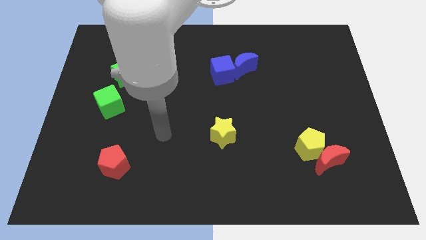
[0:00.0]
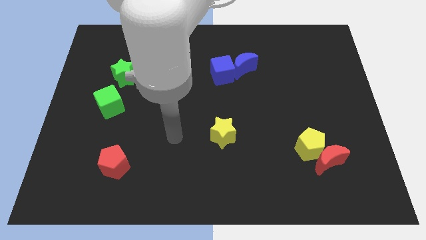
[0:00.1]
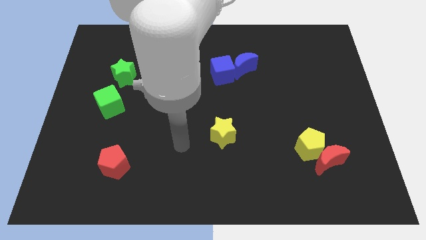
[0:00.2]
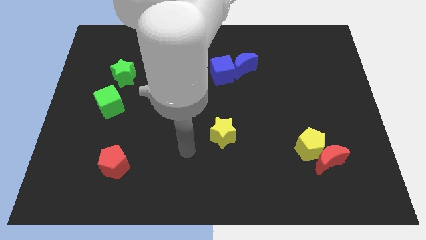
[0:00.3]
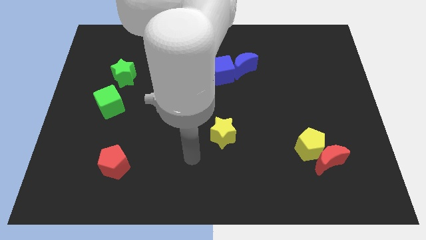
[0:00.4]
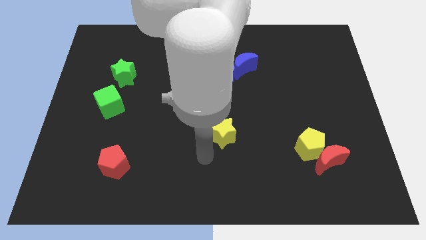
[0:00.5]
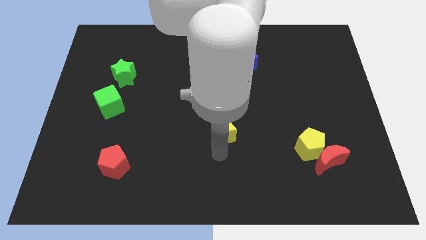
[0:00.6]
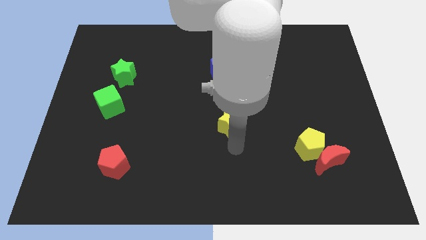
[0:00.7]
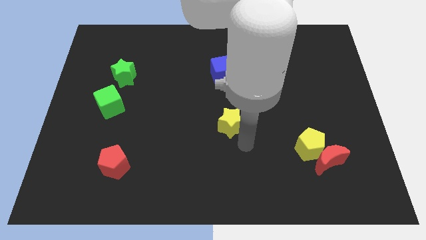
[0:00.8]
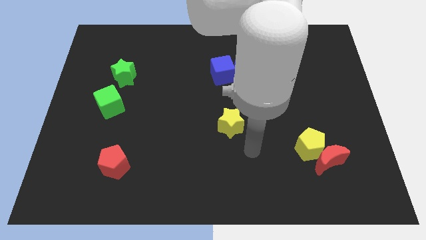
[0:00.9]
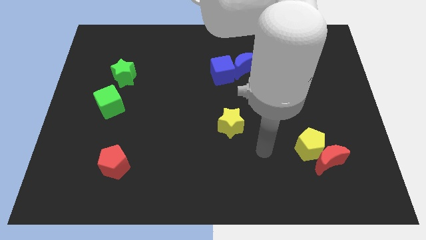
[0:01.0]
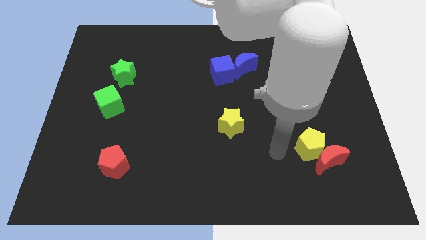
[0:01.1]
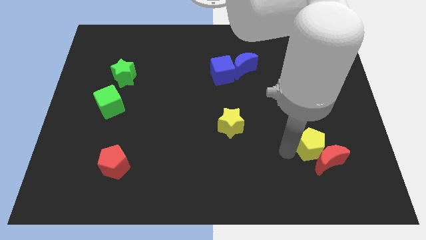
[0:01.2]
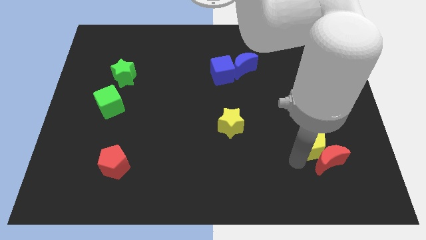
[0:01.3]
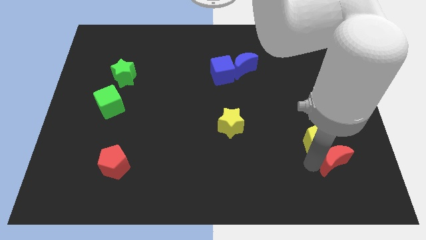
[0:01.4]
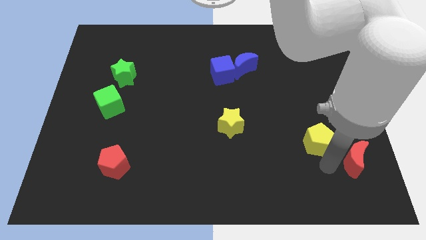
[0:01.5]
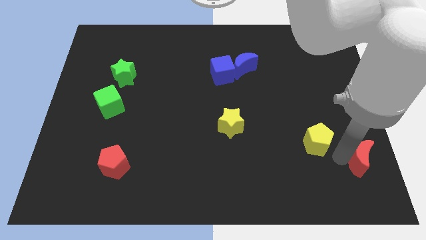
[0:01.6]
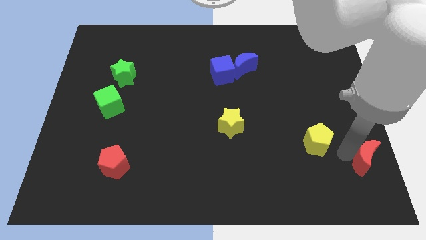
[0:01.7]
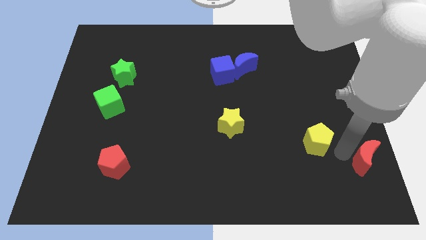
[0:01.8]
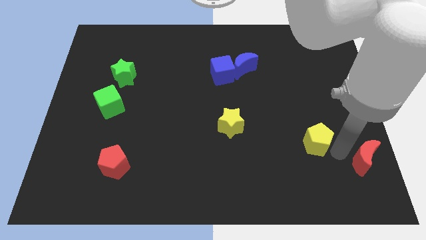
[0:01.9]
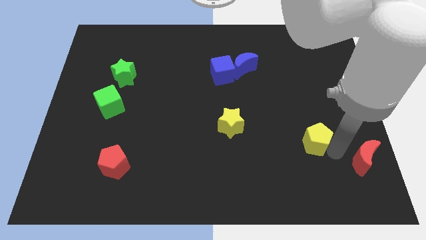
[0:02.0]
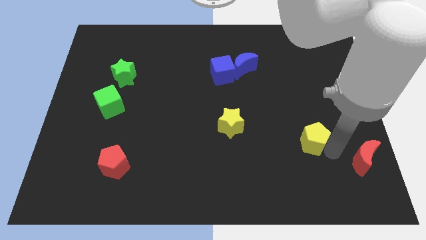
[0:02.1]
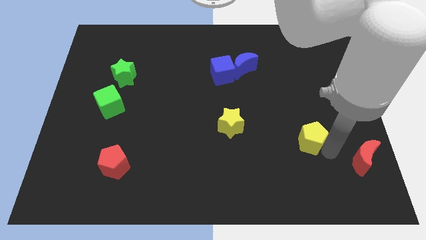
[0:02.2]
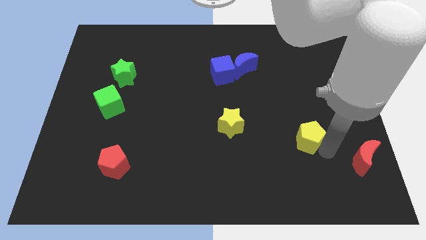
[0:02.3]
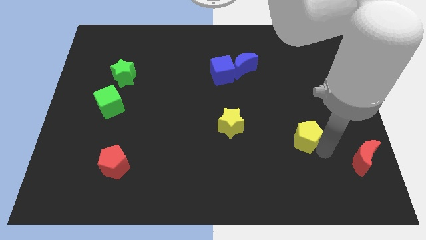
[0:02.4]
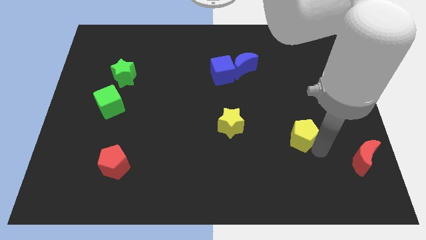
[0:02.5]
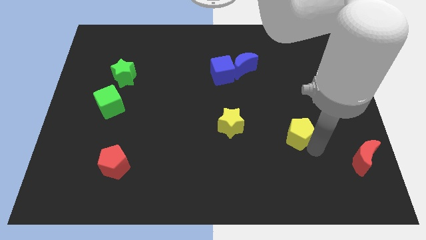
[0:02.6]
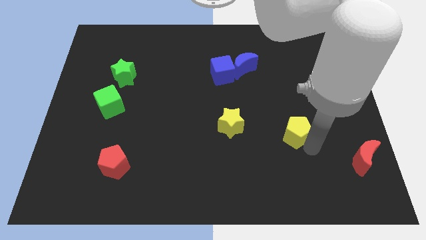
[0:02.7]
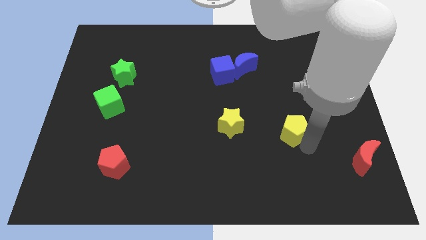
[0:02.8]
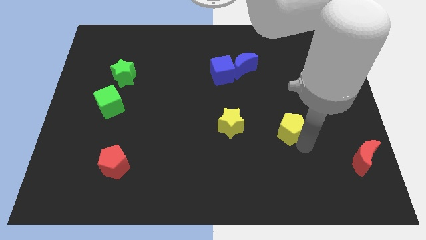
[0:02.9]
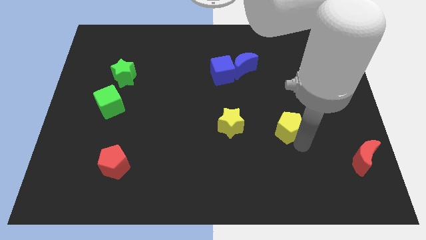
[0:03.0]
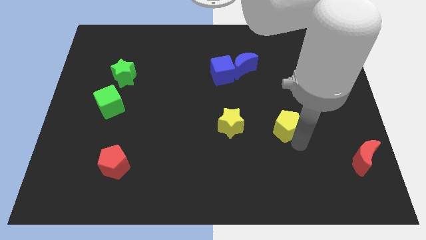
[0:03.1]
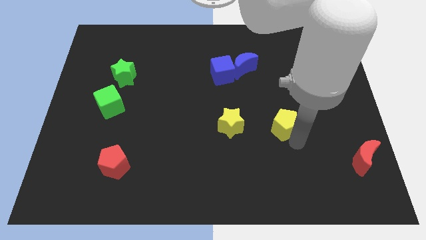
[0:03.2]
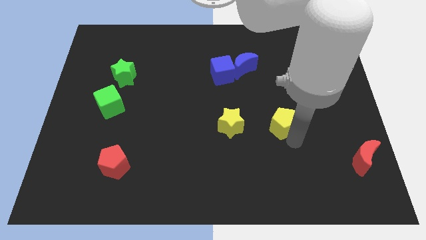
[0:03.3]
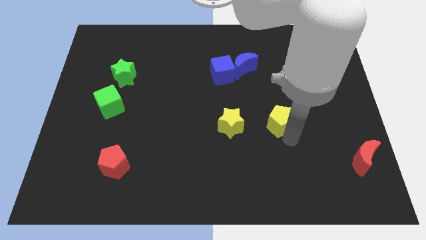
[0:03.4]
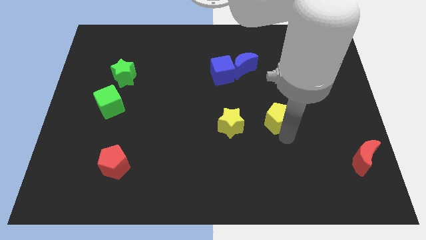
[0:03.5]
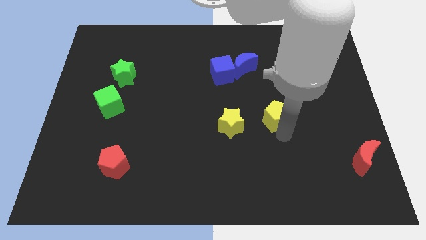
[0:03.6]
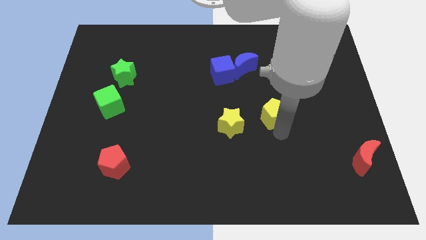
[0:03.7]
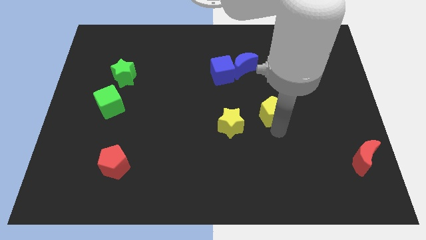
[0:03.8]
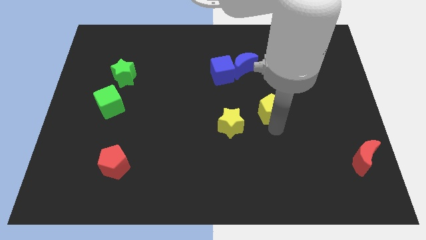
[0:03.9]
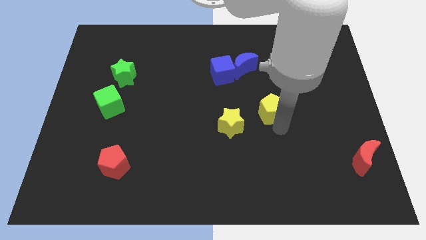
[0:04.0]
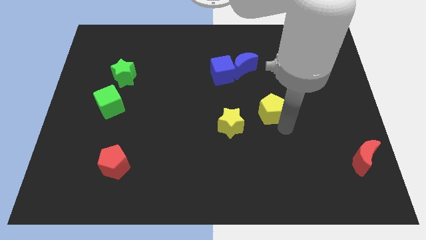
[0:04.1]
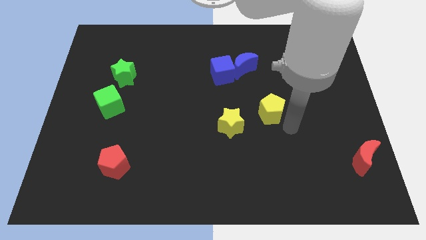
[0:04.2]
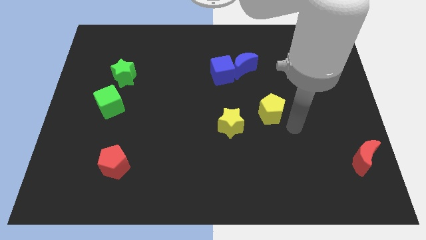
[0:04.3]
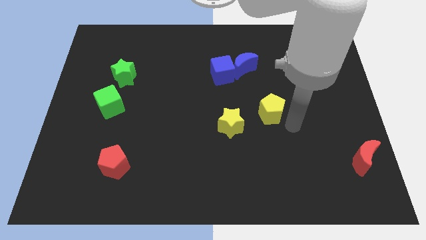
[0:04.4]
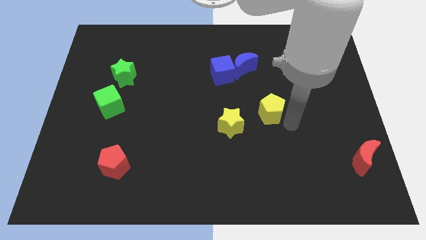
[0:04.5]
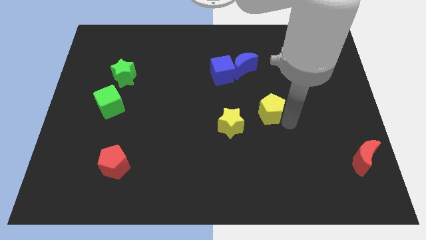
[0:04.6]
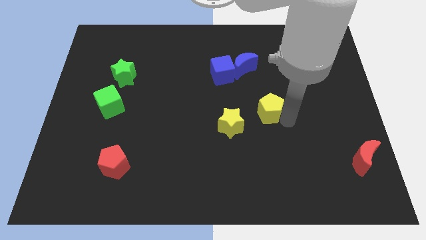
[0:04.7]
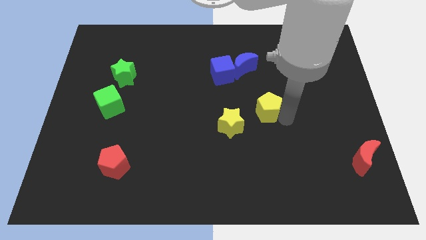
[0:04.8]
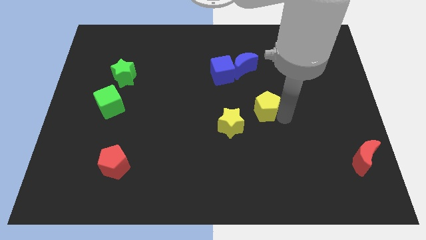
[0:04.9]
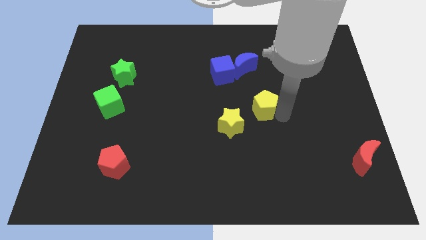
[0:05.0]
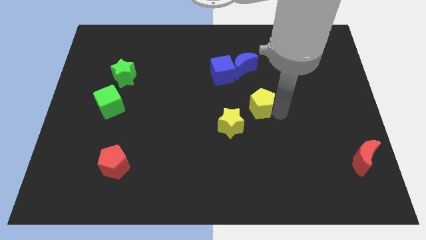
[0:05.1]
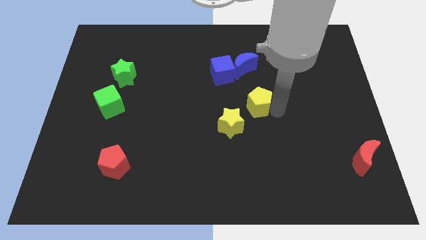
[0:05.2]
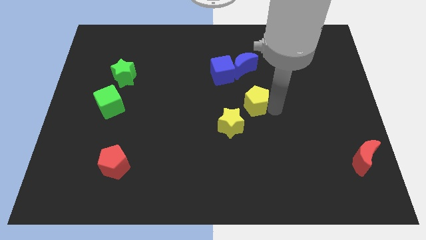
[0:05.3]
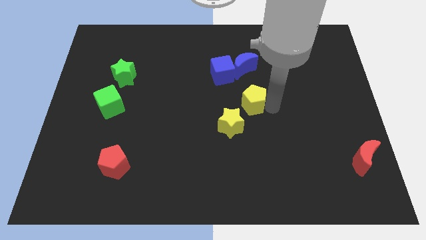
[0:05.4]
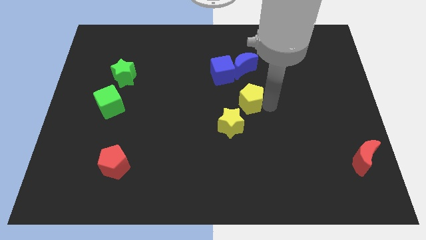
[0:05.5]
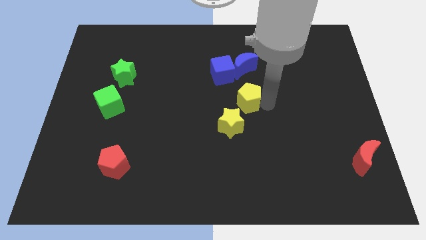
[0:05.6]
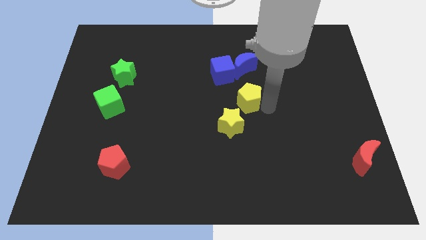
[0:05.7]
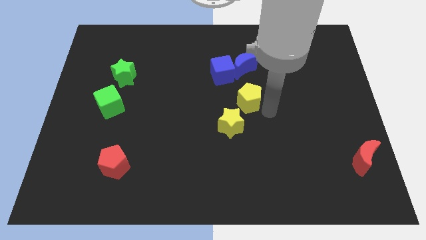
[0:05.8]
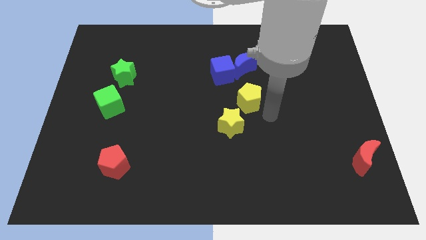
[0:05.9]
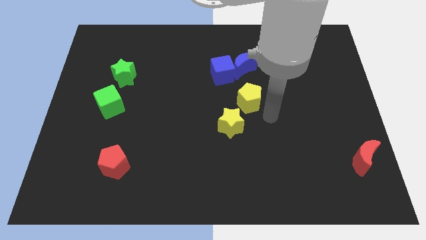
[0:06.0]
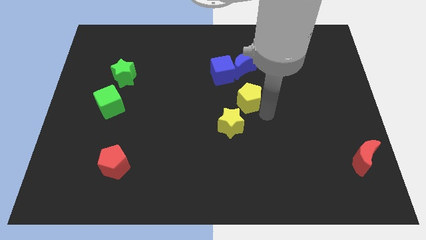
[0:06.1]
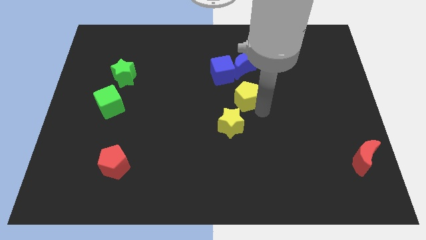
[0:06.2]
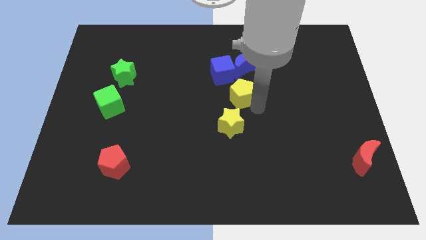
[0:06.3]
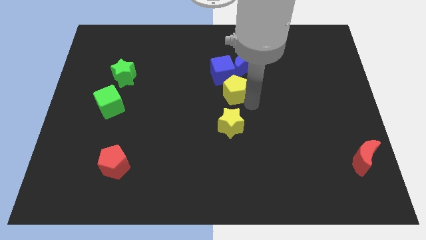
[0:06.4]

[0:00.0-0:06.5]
slide the yellow pentagon diagonally down and to the left of the blue moon

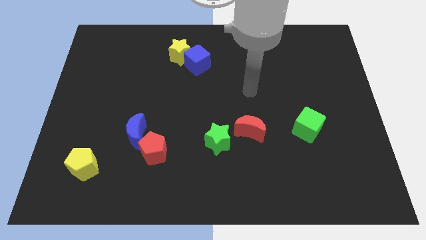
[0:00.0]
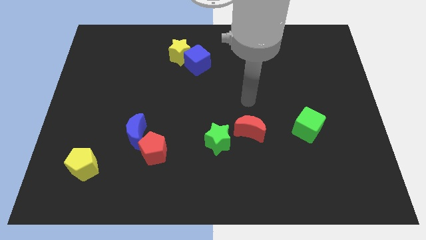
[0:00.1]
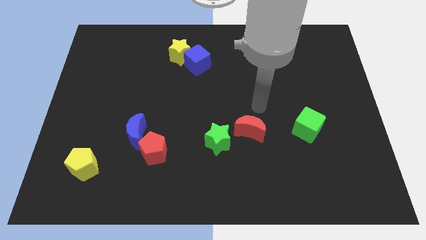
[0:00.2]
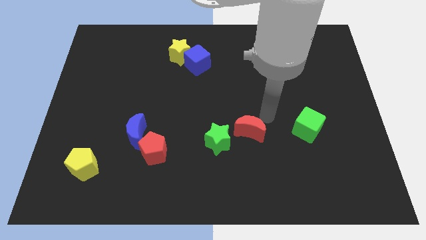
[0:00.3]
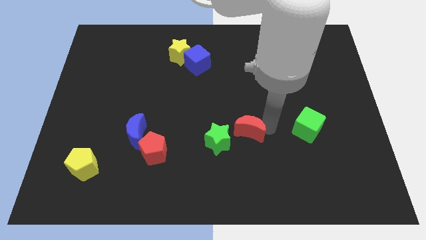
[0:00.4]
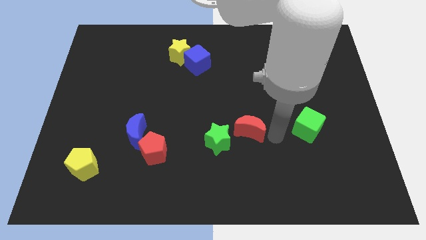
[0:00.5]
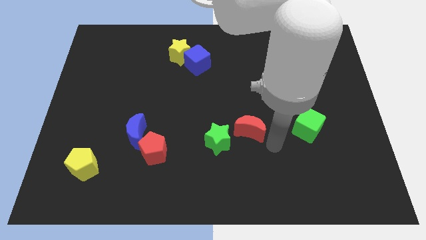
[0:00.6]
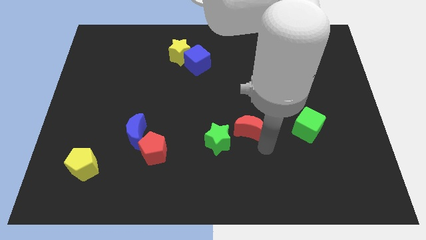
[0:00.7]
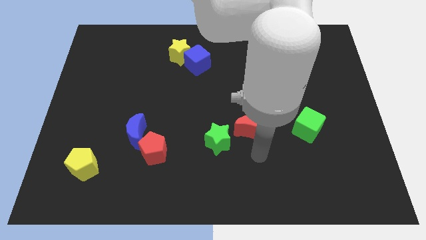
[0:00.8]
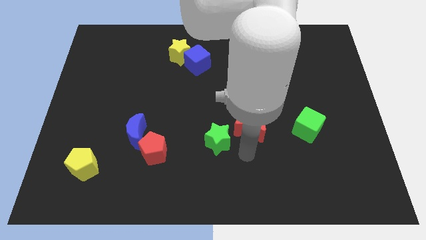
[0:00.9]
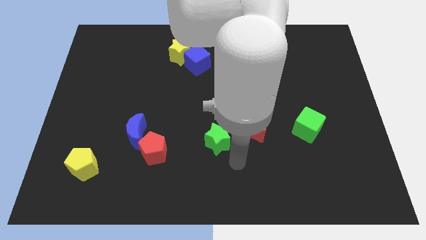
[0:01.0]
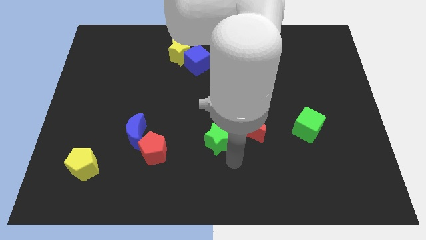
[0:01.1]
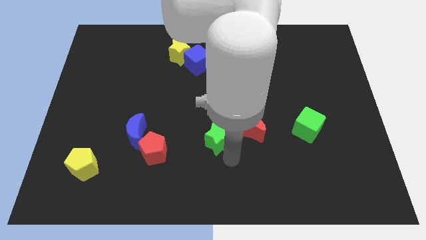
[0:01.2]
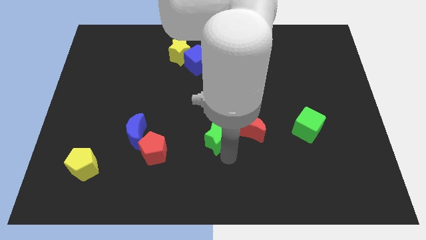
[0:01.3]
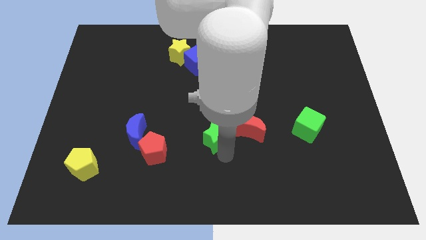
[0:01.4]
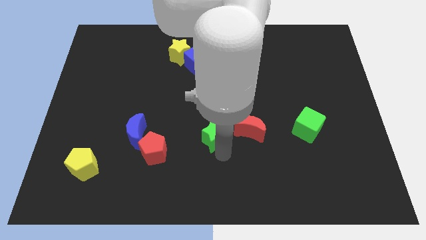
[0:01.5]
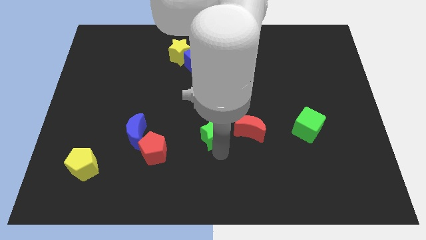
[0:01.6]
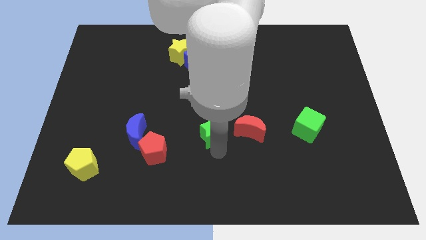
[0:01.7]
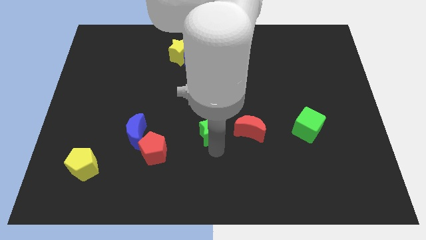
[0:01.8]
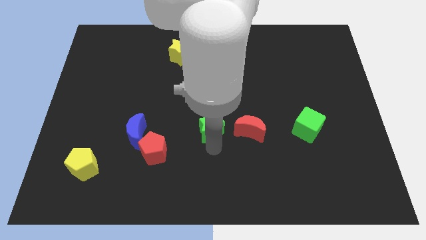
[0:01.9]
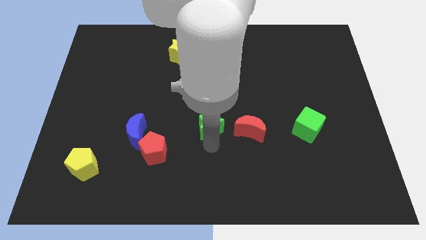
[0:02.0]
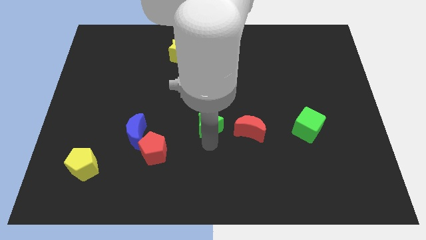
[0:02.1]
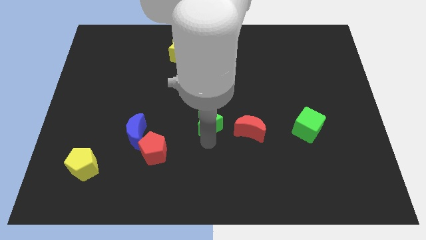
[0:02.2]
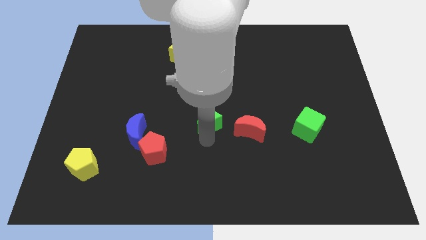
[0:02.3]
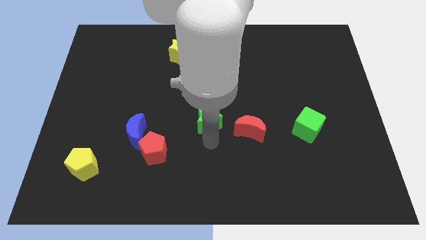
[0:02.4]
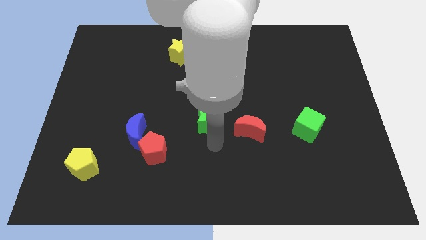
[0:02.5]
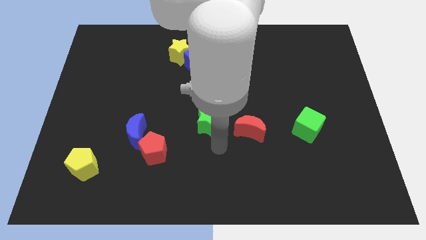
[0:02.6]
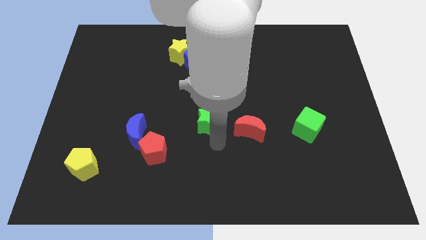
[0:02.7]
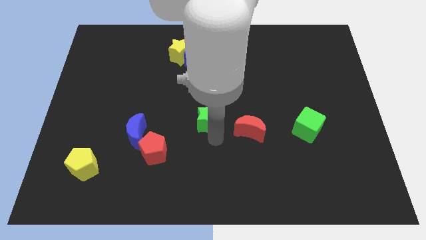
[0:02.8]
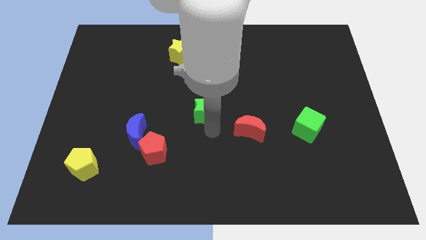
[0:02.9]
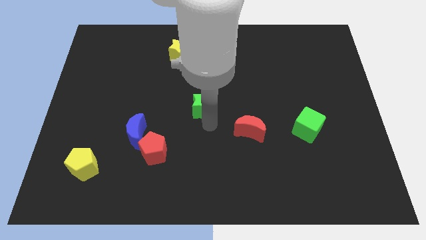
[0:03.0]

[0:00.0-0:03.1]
put the green star to the bottom of the blue cube
